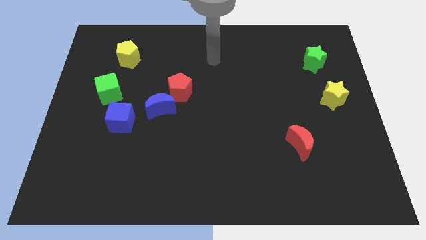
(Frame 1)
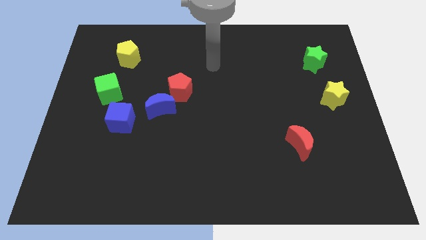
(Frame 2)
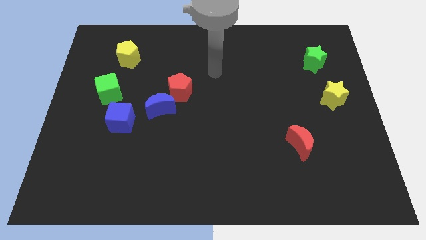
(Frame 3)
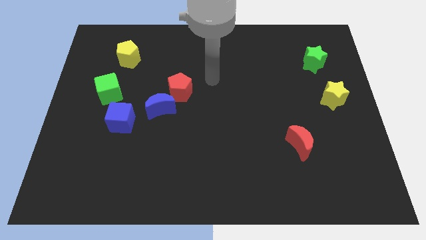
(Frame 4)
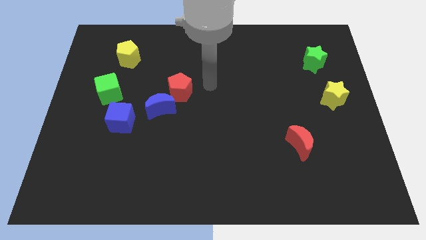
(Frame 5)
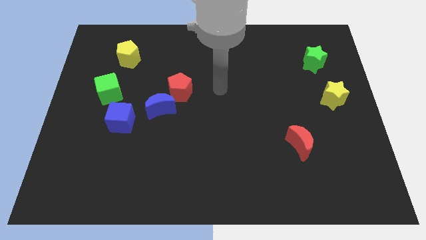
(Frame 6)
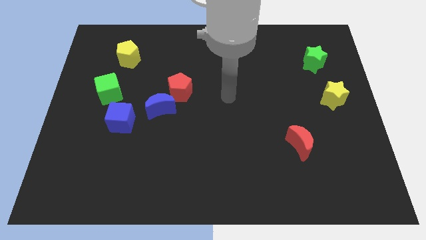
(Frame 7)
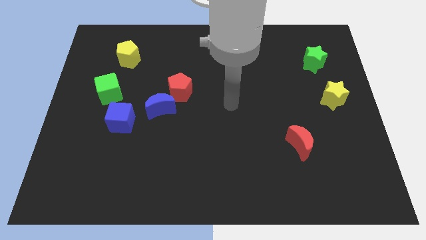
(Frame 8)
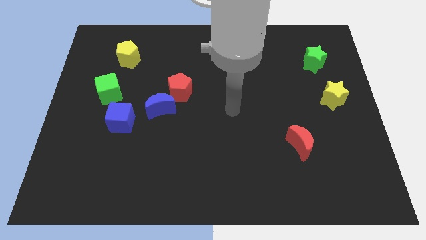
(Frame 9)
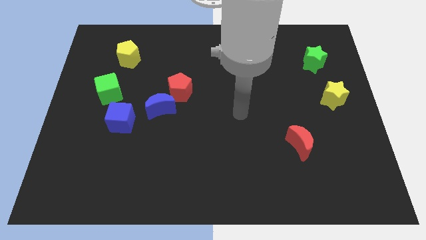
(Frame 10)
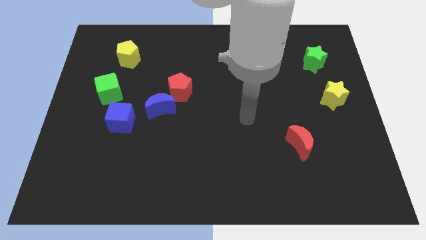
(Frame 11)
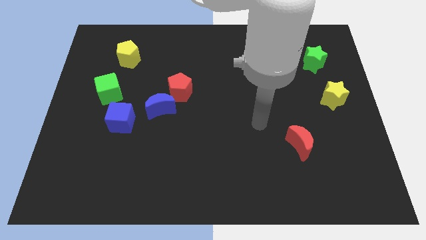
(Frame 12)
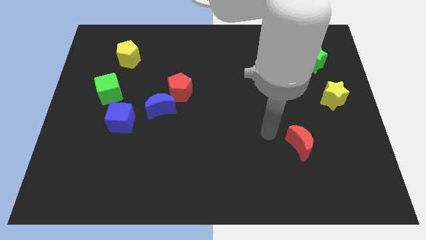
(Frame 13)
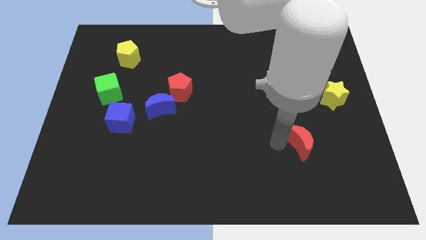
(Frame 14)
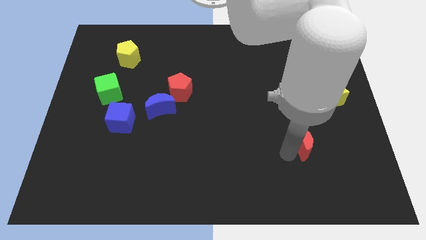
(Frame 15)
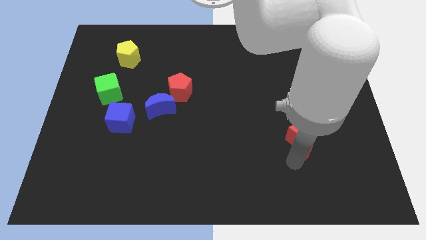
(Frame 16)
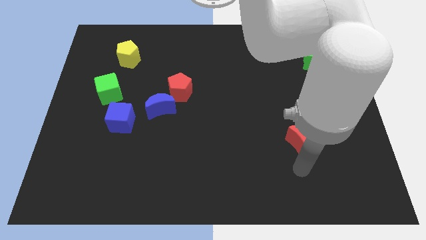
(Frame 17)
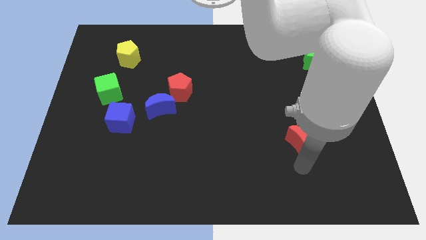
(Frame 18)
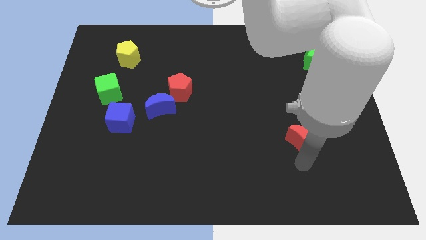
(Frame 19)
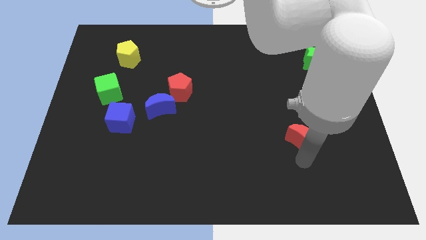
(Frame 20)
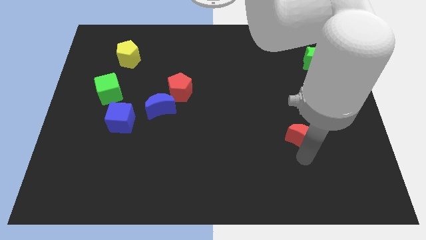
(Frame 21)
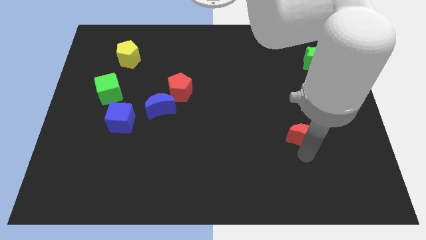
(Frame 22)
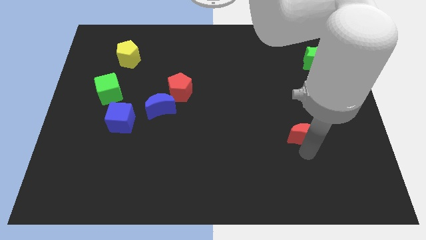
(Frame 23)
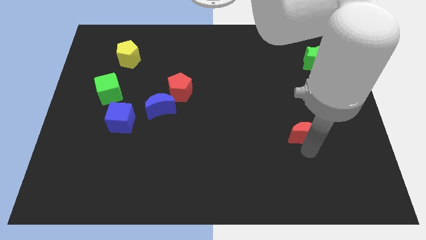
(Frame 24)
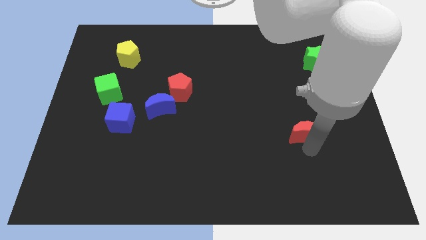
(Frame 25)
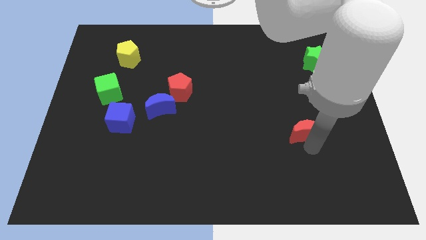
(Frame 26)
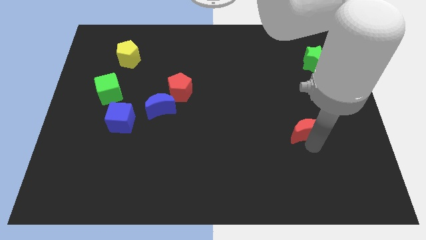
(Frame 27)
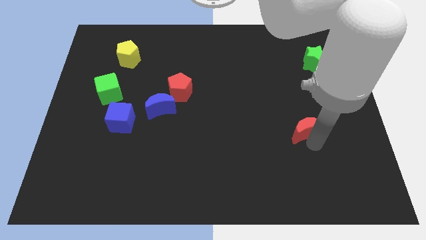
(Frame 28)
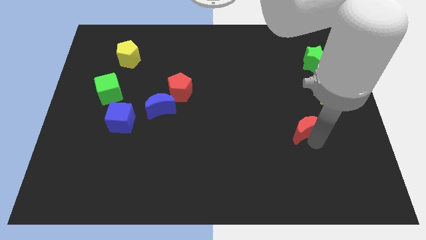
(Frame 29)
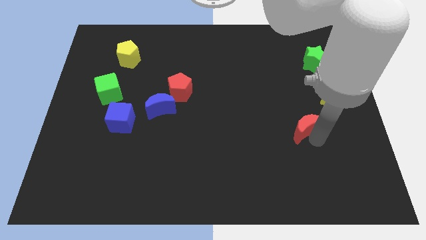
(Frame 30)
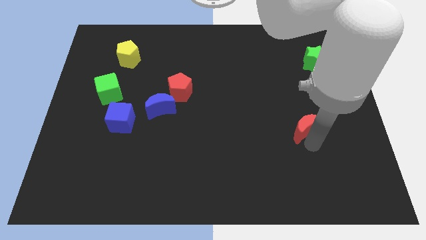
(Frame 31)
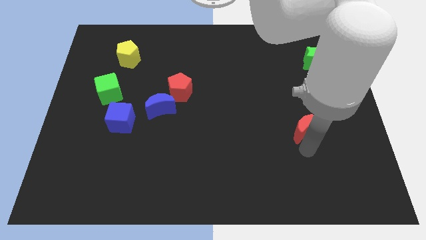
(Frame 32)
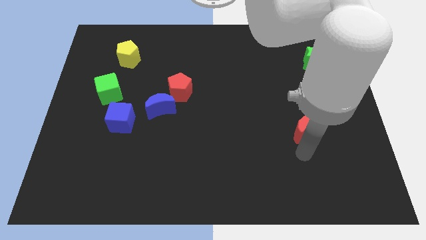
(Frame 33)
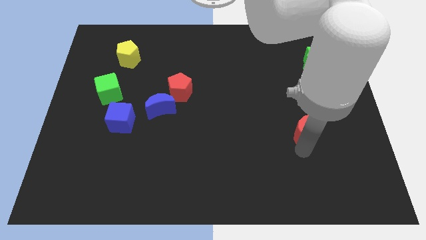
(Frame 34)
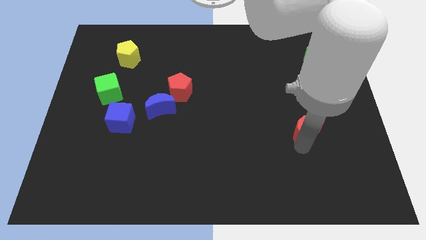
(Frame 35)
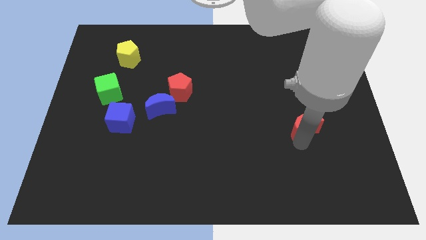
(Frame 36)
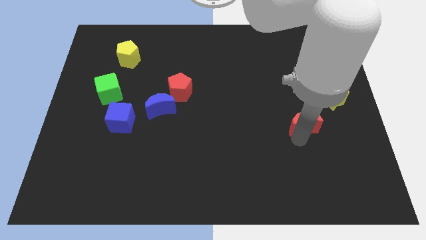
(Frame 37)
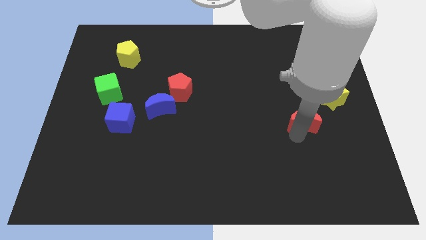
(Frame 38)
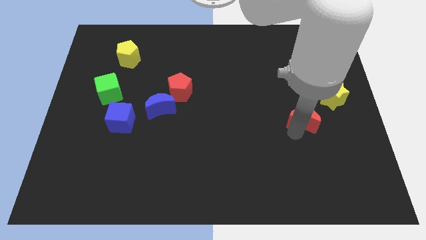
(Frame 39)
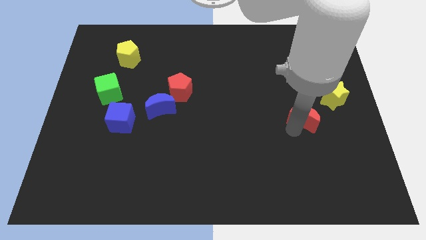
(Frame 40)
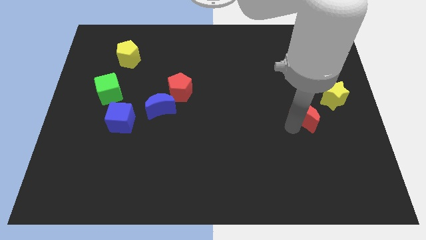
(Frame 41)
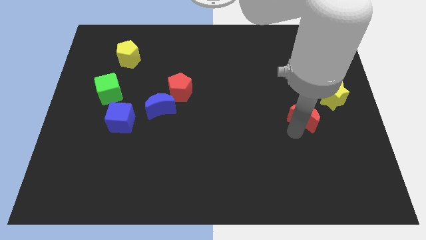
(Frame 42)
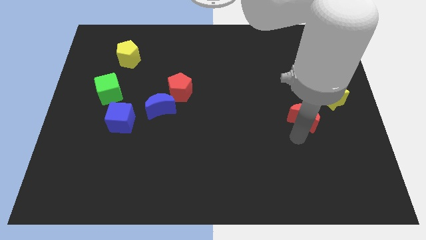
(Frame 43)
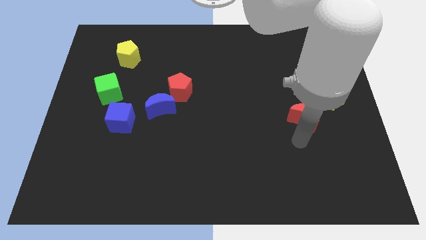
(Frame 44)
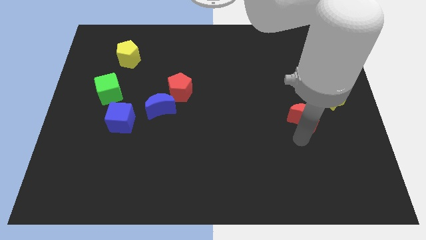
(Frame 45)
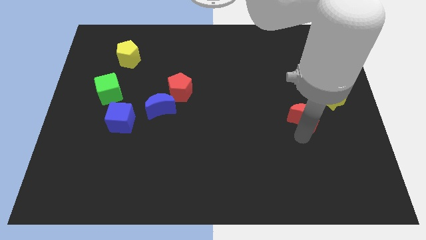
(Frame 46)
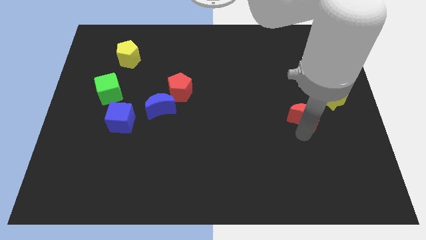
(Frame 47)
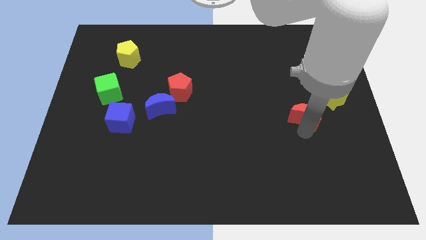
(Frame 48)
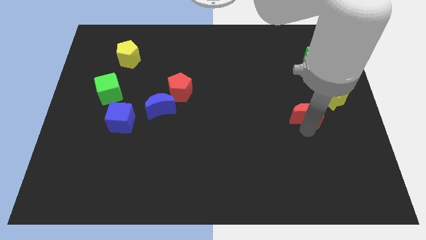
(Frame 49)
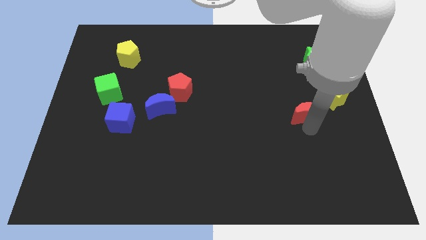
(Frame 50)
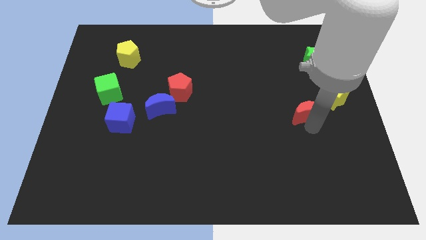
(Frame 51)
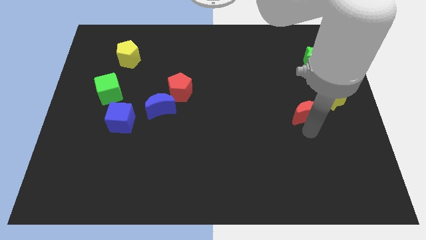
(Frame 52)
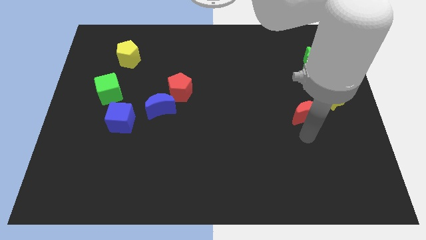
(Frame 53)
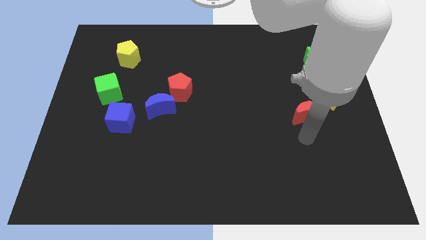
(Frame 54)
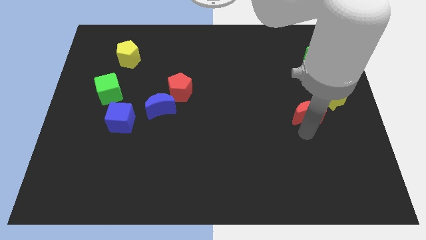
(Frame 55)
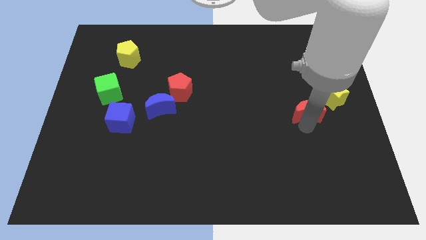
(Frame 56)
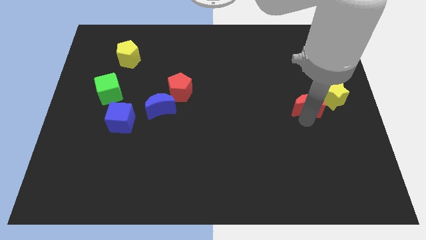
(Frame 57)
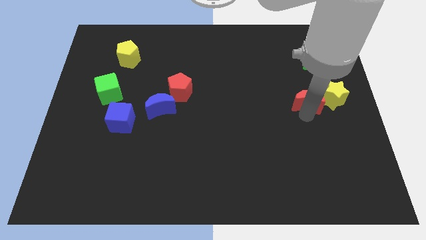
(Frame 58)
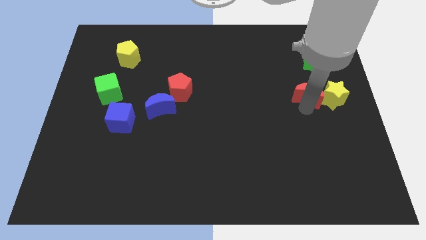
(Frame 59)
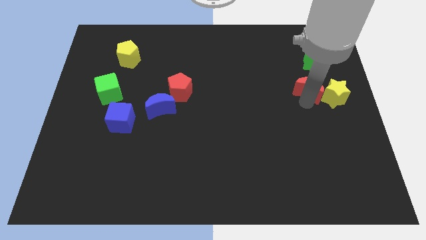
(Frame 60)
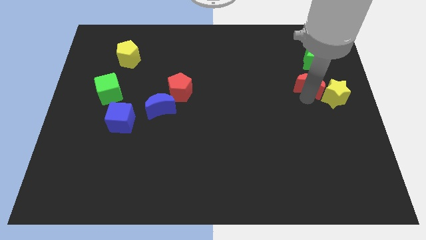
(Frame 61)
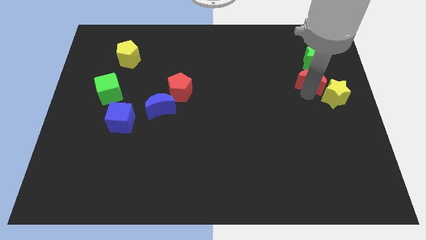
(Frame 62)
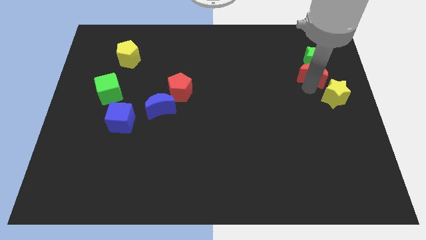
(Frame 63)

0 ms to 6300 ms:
put the red moon close to the green star

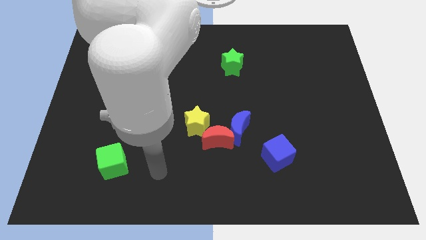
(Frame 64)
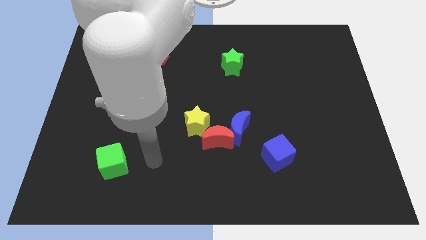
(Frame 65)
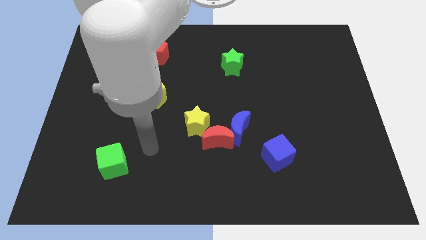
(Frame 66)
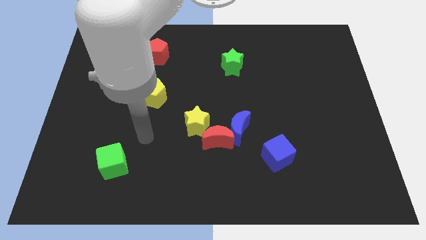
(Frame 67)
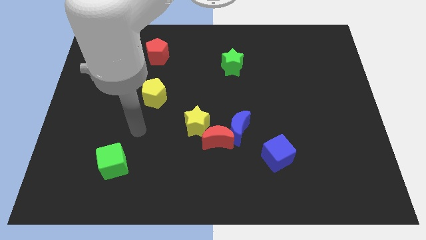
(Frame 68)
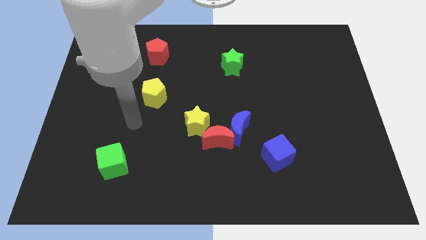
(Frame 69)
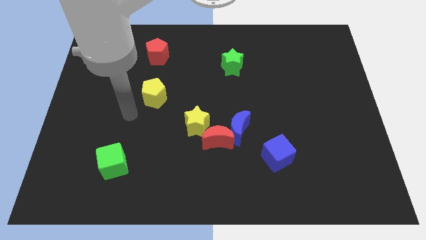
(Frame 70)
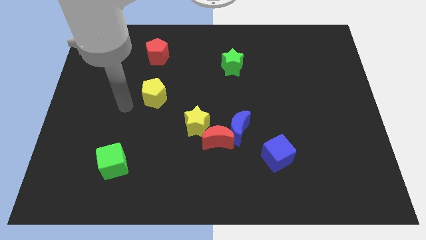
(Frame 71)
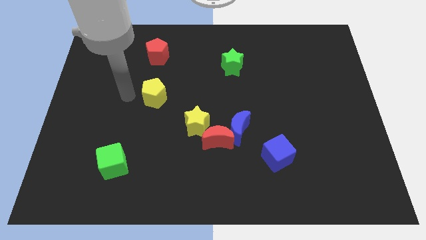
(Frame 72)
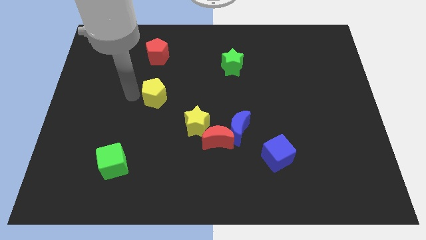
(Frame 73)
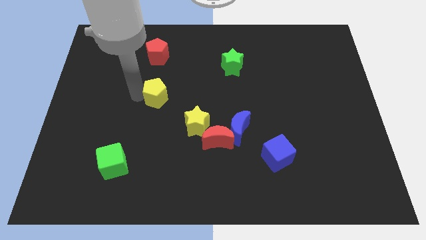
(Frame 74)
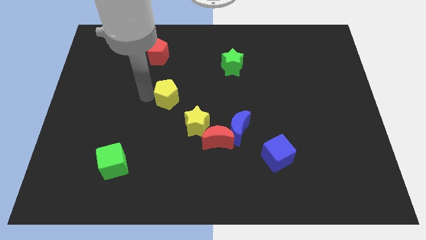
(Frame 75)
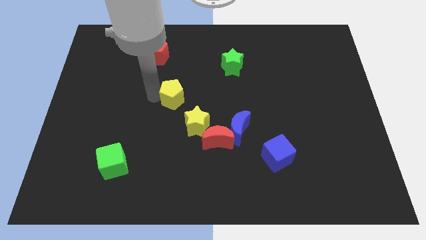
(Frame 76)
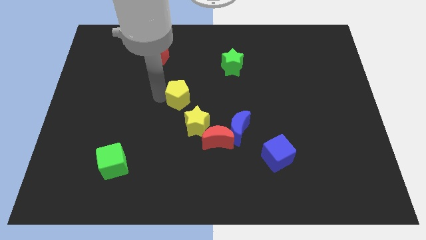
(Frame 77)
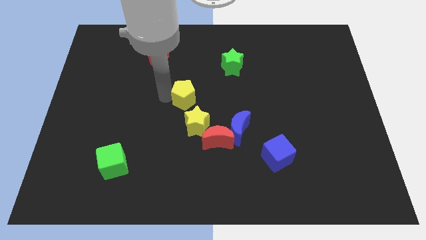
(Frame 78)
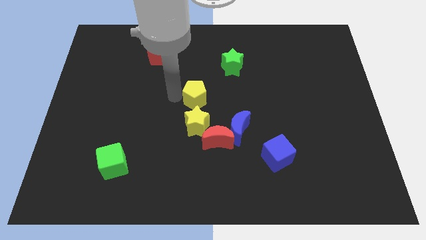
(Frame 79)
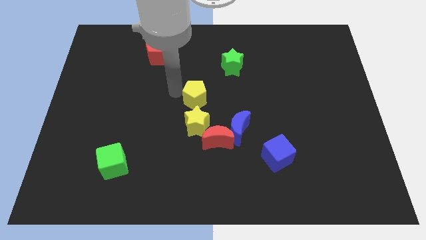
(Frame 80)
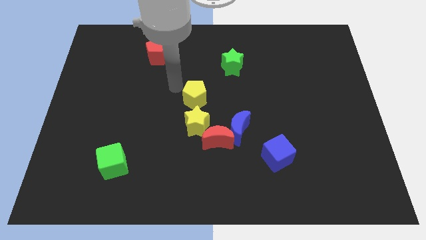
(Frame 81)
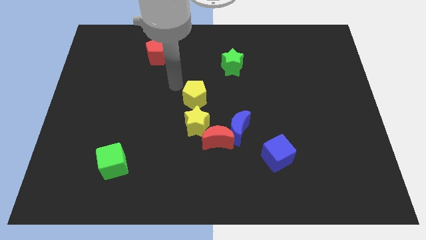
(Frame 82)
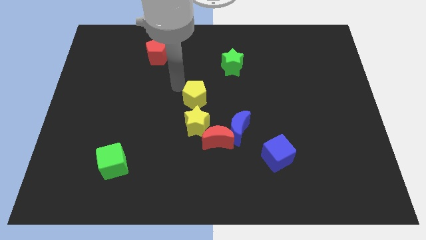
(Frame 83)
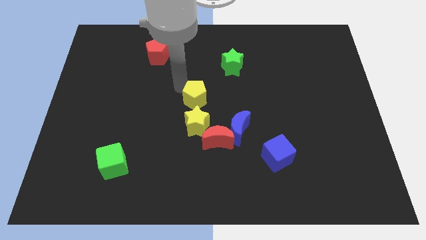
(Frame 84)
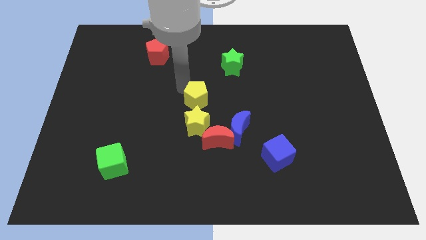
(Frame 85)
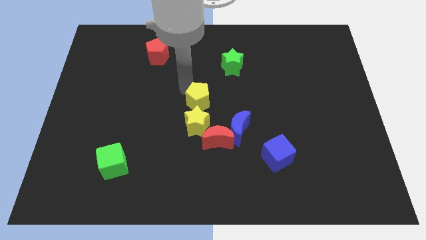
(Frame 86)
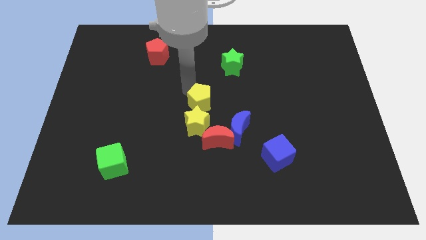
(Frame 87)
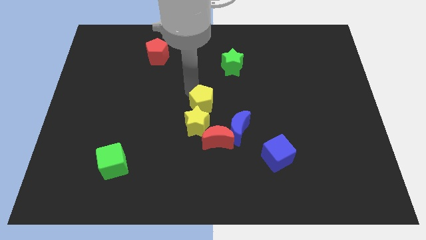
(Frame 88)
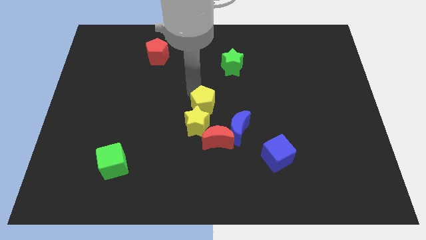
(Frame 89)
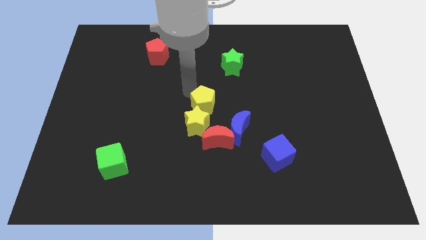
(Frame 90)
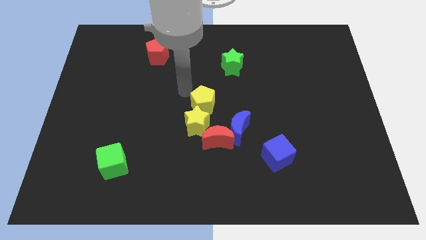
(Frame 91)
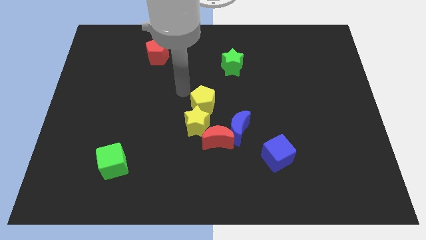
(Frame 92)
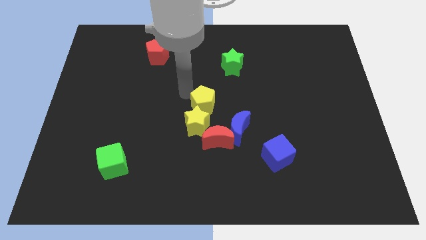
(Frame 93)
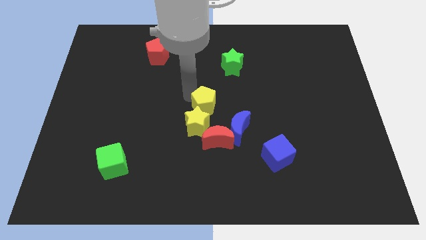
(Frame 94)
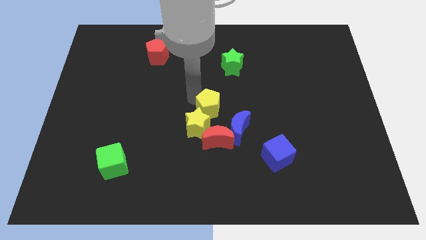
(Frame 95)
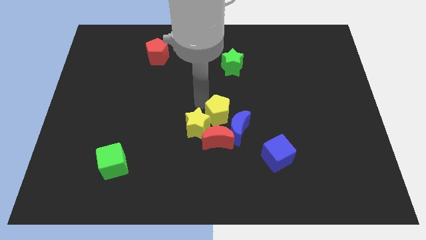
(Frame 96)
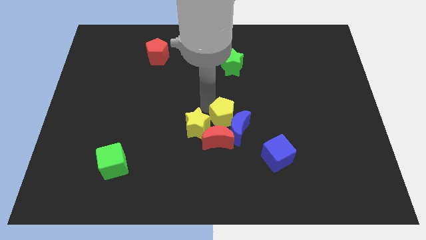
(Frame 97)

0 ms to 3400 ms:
put the yellow pentagon to the blue moon
